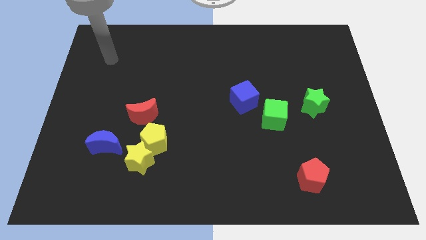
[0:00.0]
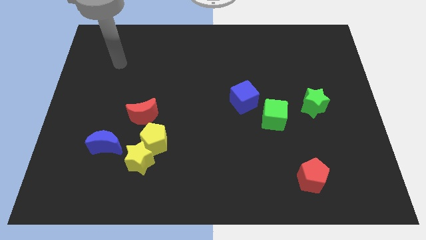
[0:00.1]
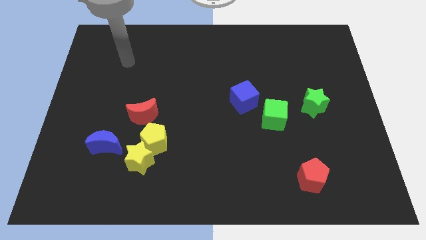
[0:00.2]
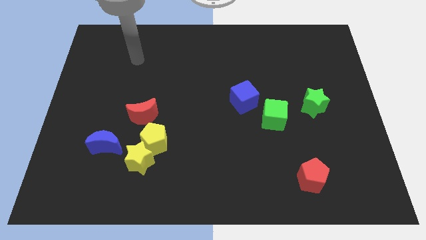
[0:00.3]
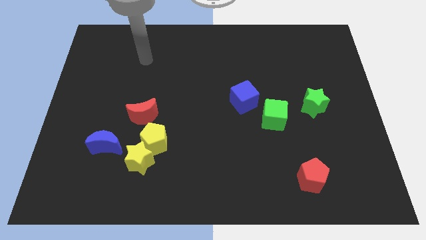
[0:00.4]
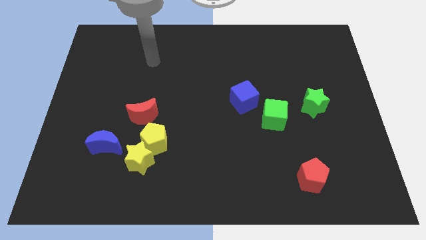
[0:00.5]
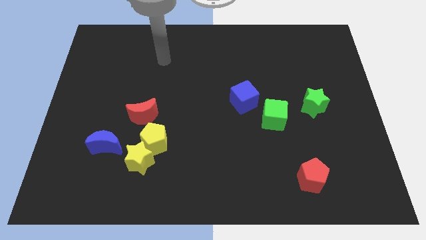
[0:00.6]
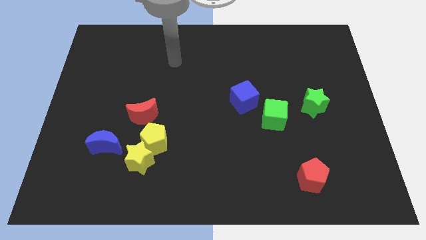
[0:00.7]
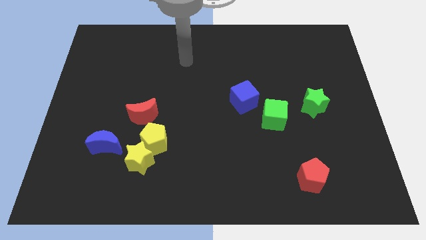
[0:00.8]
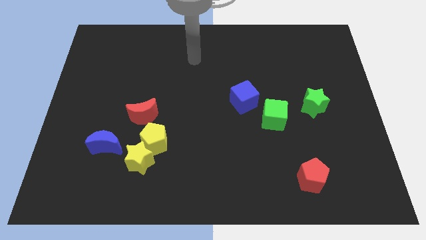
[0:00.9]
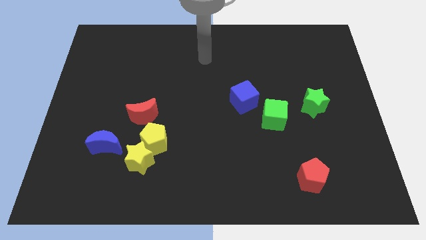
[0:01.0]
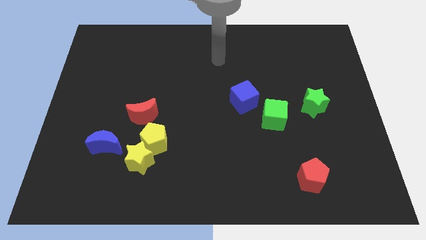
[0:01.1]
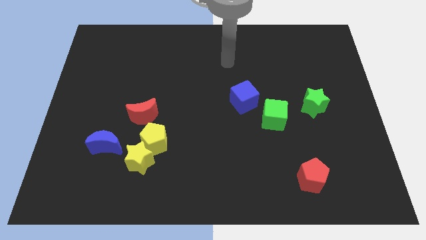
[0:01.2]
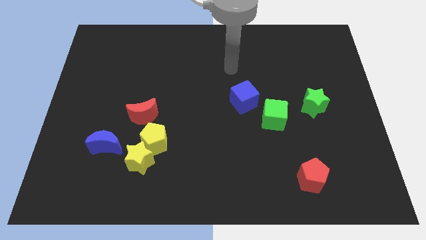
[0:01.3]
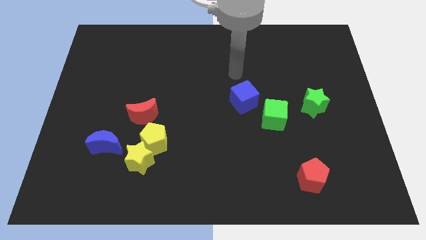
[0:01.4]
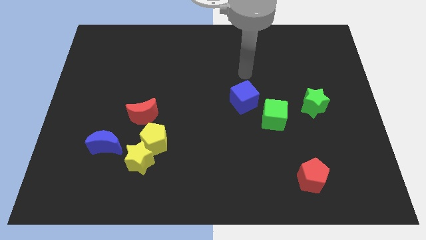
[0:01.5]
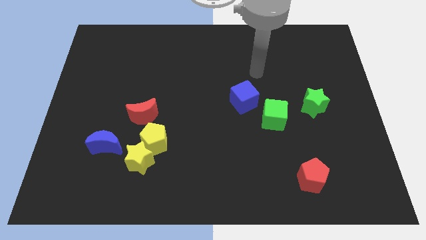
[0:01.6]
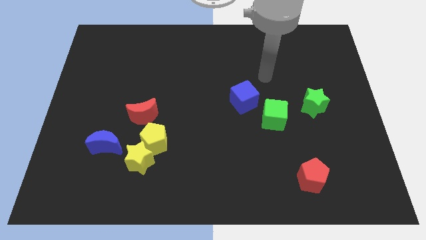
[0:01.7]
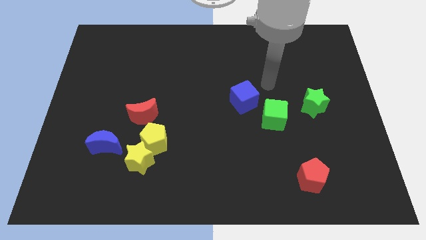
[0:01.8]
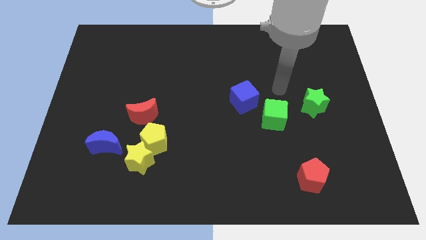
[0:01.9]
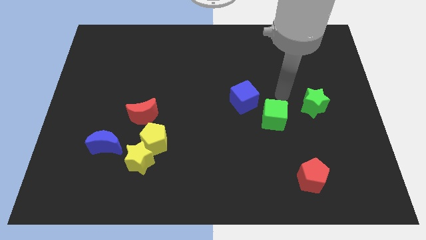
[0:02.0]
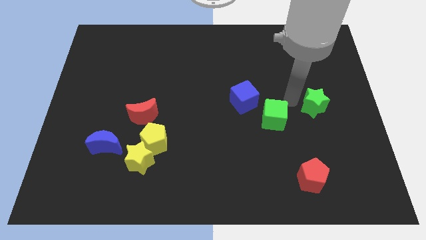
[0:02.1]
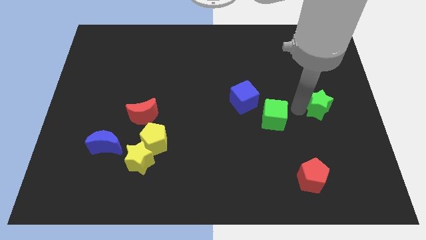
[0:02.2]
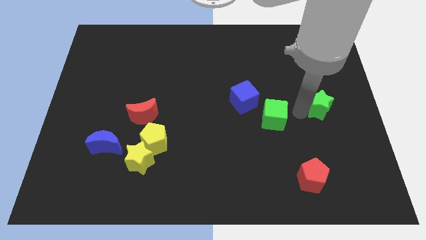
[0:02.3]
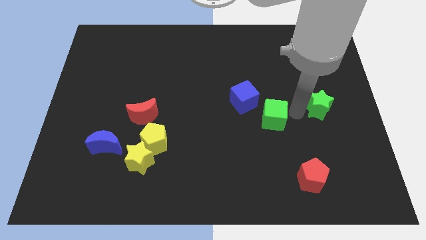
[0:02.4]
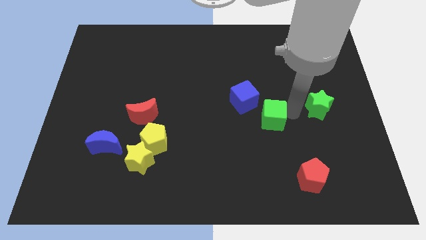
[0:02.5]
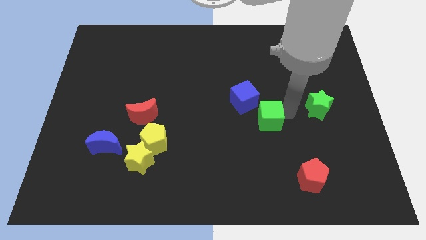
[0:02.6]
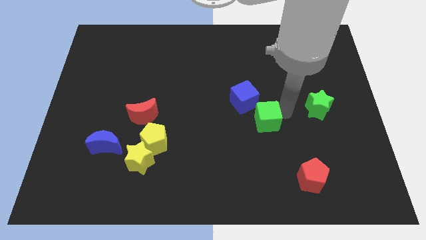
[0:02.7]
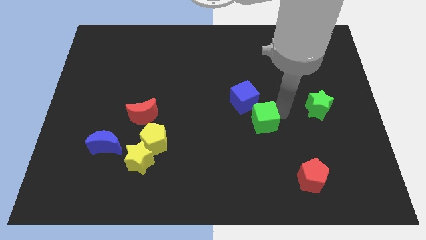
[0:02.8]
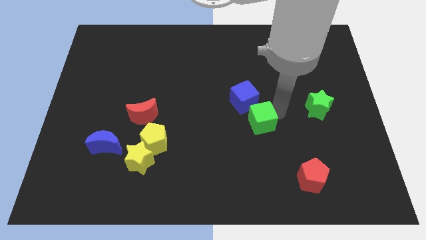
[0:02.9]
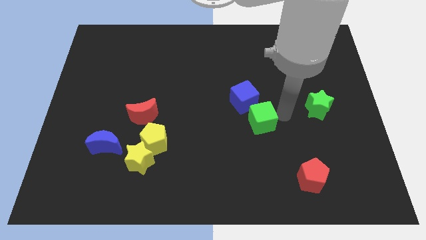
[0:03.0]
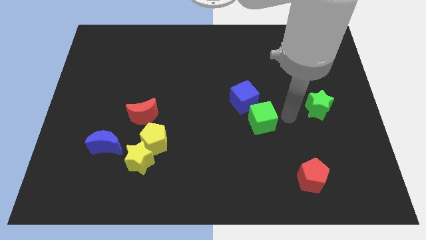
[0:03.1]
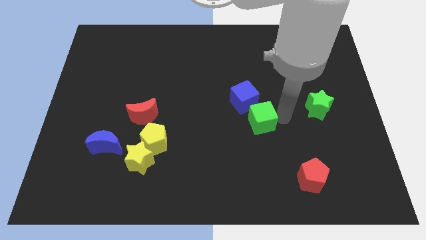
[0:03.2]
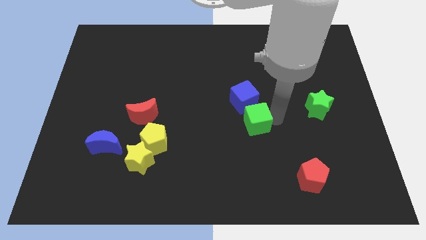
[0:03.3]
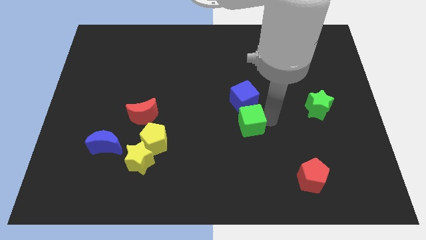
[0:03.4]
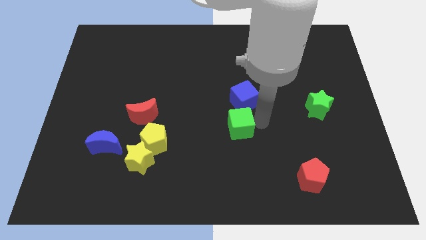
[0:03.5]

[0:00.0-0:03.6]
slide the green cube a bit to the left

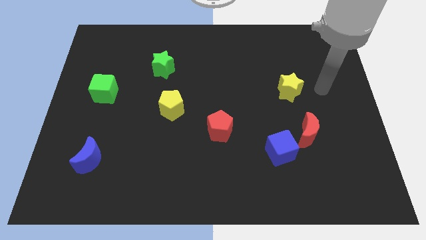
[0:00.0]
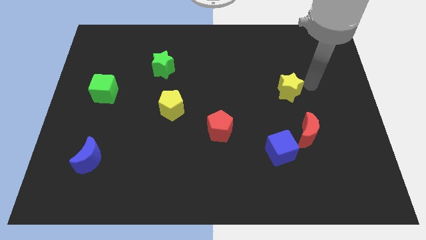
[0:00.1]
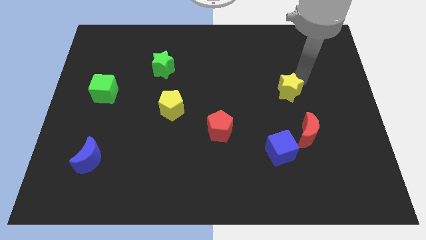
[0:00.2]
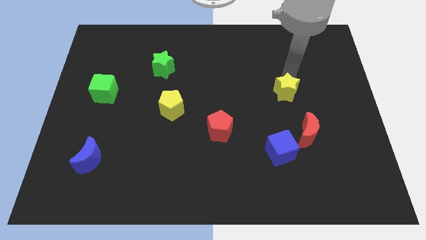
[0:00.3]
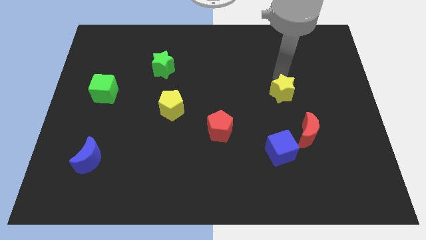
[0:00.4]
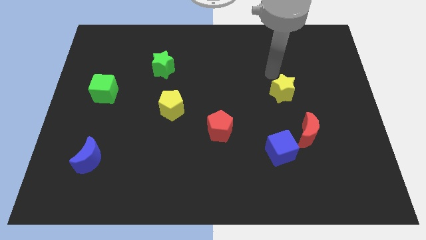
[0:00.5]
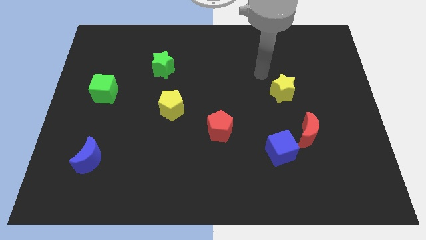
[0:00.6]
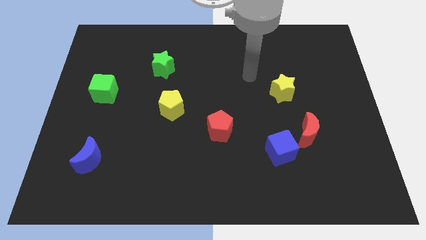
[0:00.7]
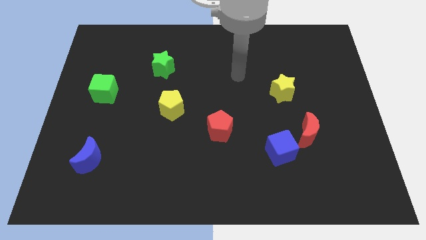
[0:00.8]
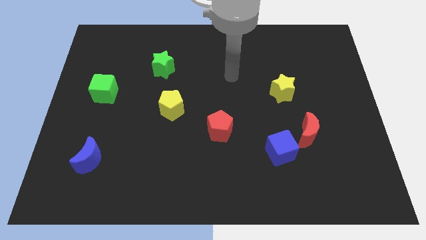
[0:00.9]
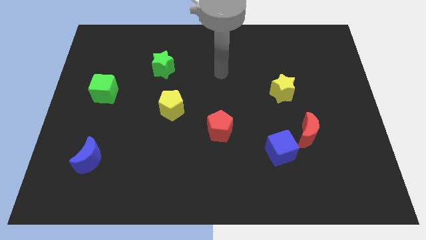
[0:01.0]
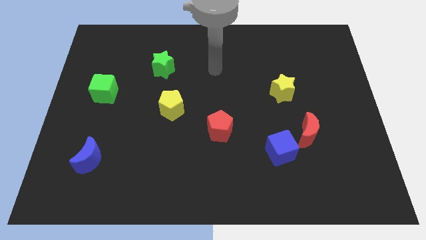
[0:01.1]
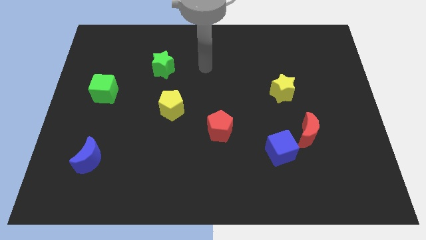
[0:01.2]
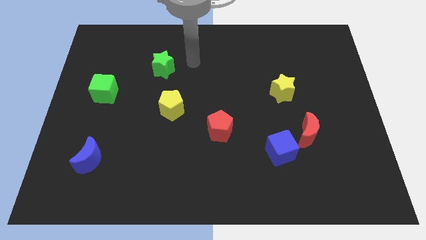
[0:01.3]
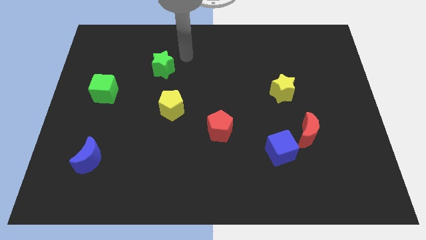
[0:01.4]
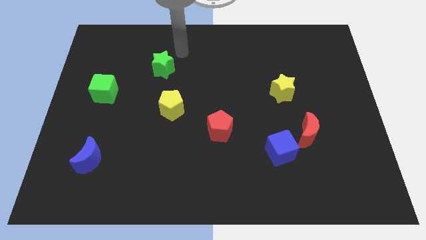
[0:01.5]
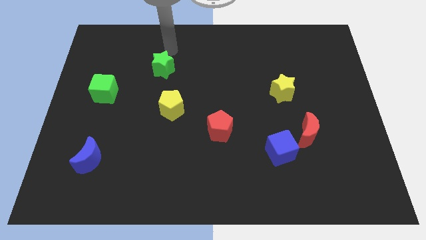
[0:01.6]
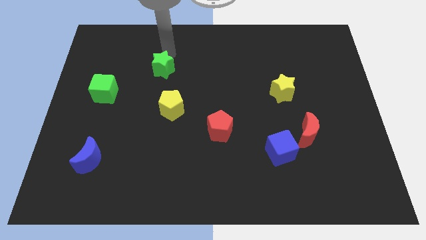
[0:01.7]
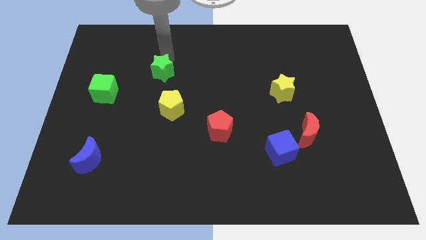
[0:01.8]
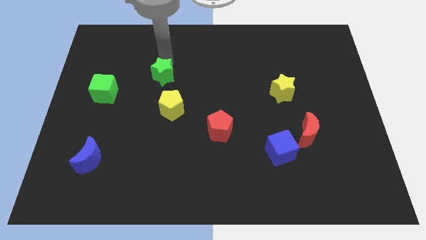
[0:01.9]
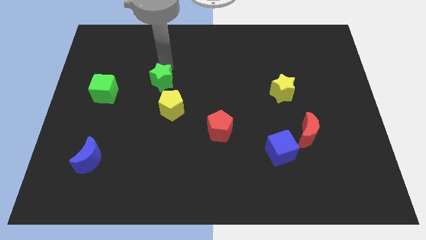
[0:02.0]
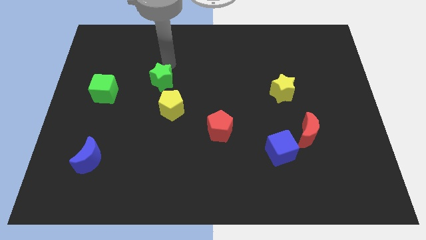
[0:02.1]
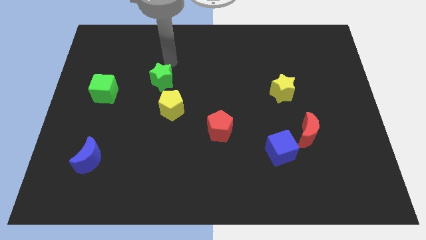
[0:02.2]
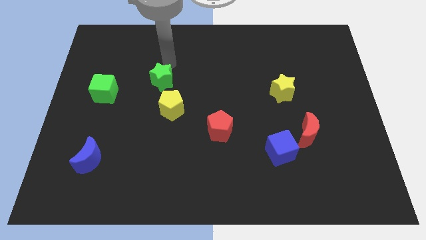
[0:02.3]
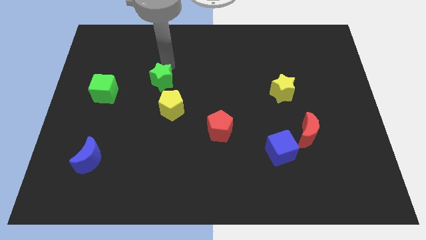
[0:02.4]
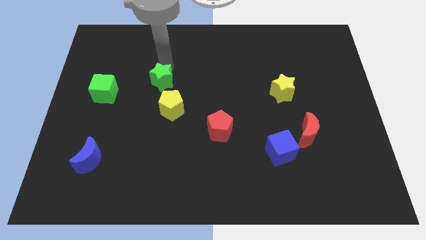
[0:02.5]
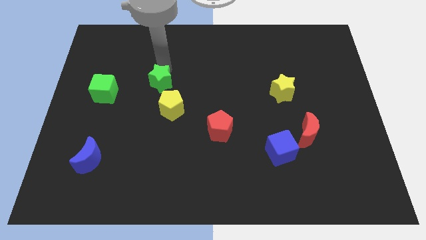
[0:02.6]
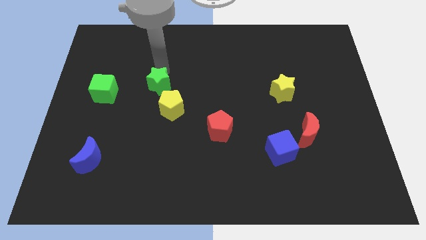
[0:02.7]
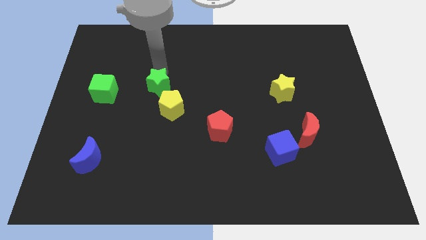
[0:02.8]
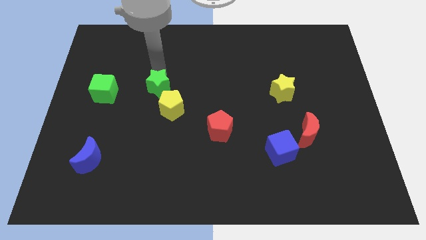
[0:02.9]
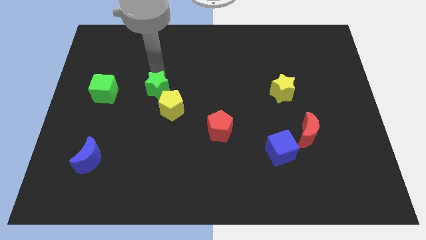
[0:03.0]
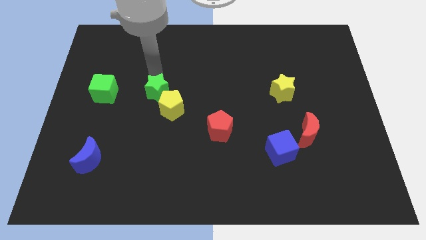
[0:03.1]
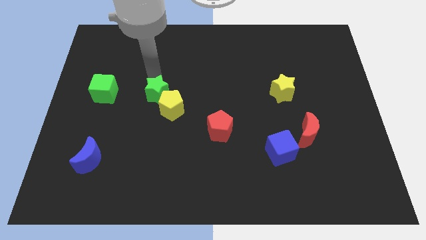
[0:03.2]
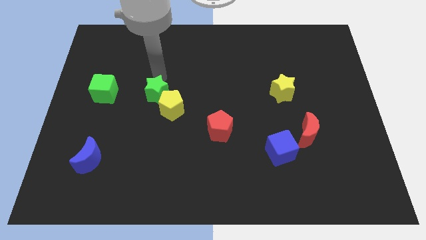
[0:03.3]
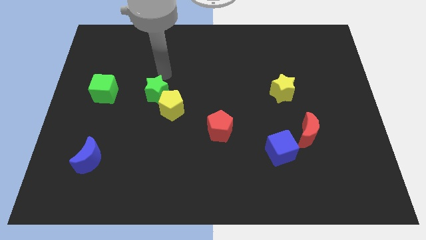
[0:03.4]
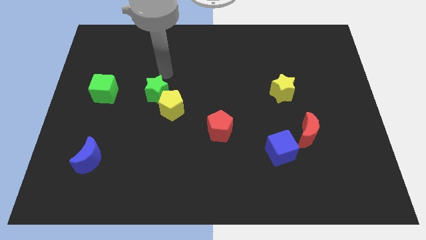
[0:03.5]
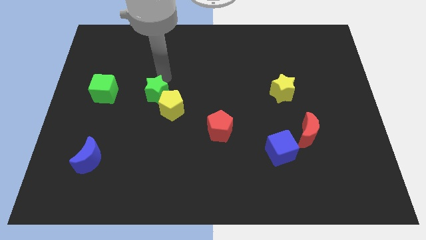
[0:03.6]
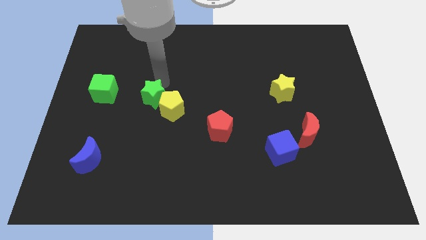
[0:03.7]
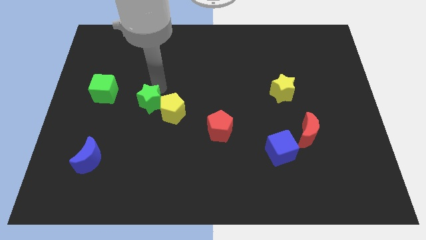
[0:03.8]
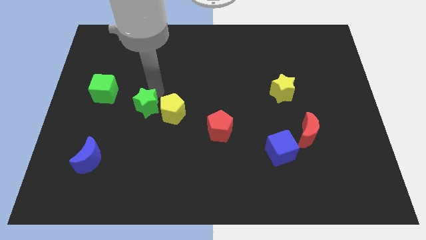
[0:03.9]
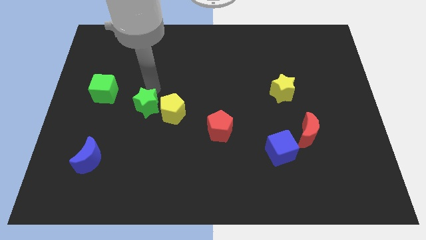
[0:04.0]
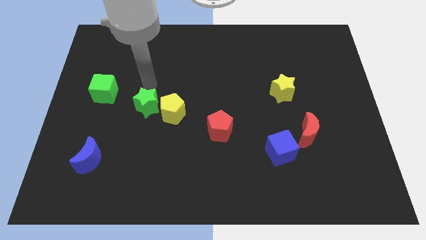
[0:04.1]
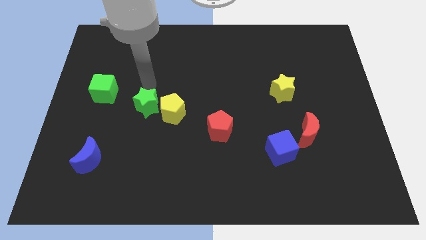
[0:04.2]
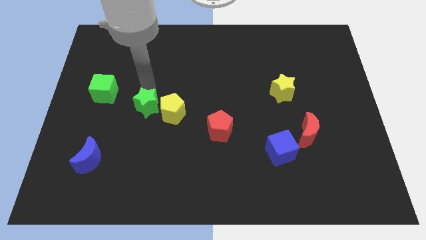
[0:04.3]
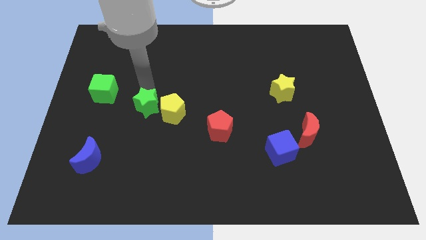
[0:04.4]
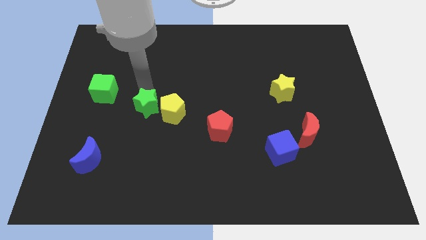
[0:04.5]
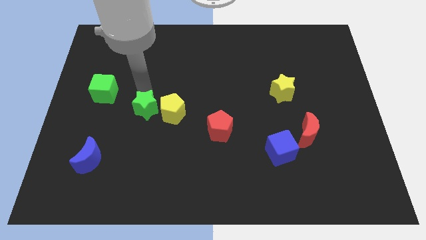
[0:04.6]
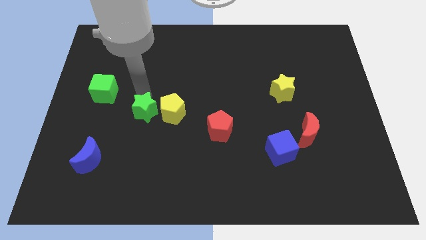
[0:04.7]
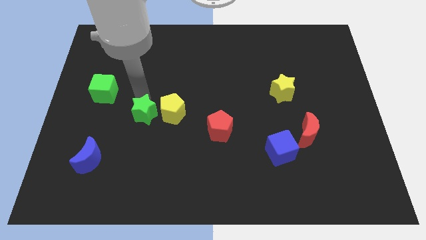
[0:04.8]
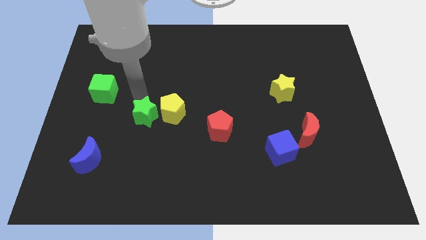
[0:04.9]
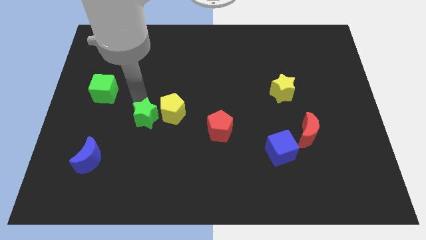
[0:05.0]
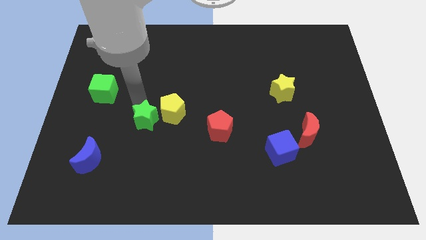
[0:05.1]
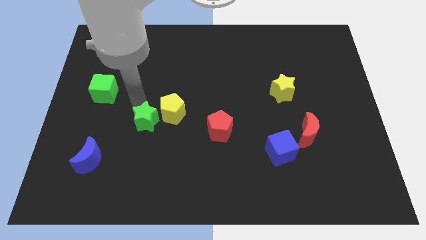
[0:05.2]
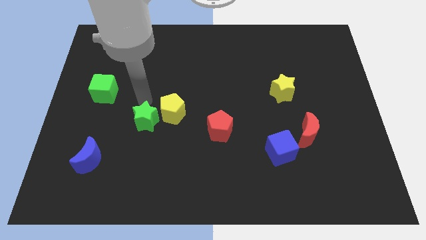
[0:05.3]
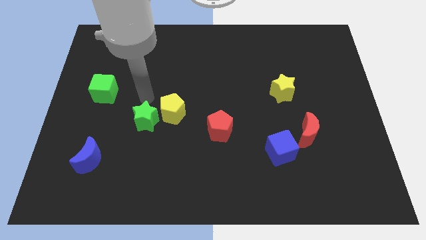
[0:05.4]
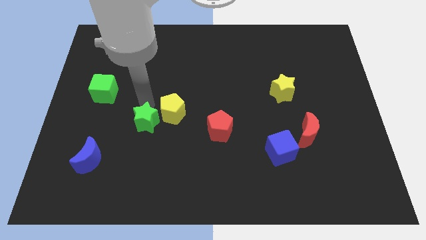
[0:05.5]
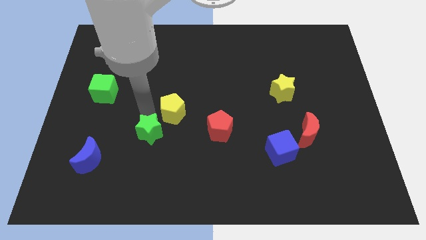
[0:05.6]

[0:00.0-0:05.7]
push the green star downwards
